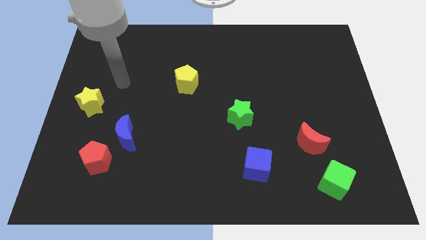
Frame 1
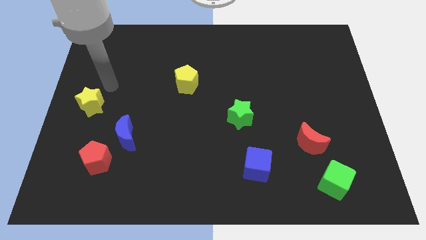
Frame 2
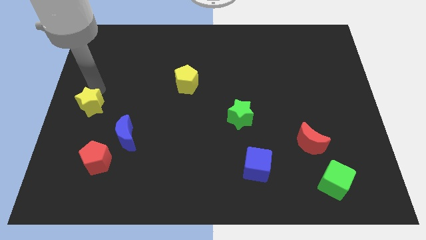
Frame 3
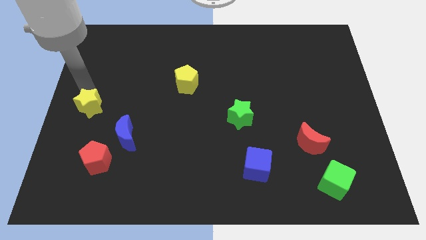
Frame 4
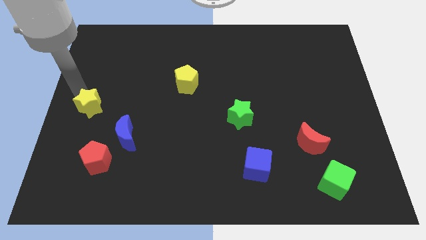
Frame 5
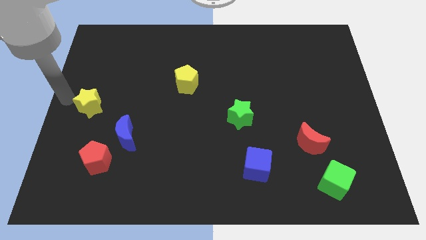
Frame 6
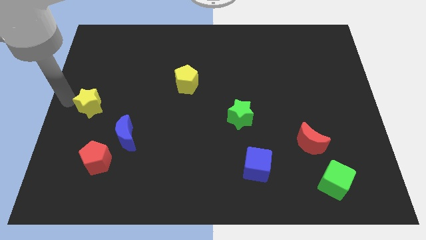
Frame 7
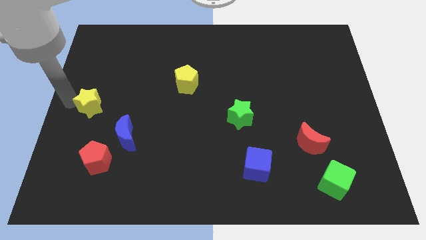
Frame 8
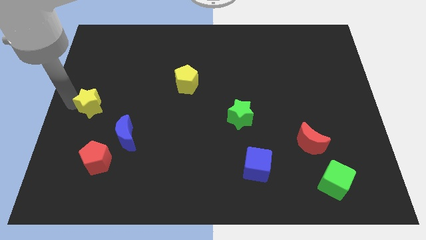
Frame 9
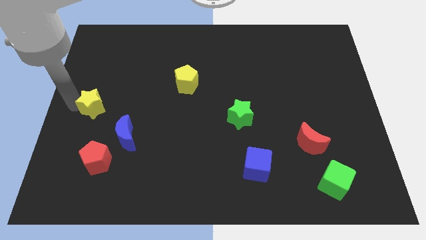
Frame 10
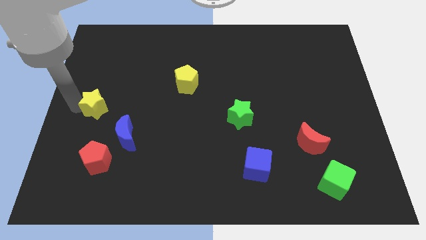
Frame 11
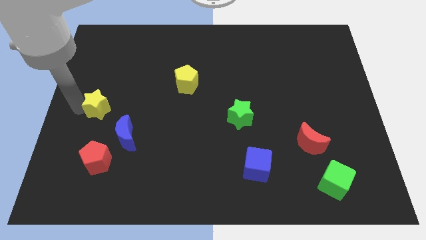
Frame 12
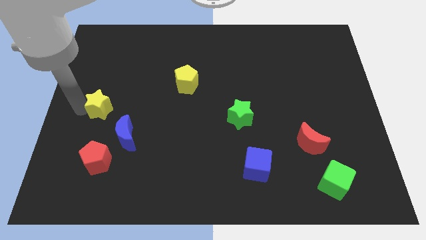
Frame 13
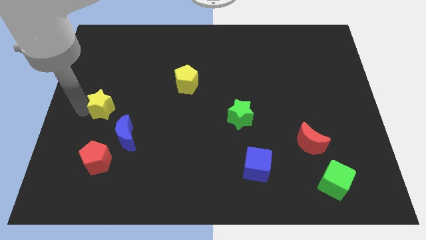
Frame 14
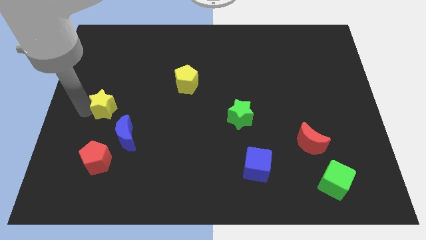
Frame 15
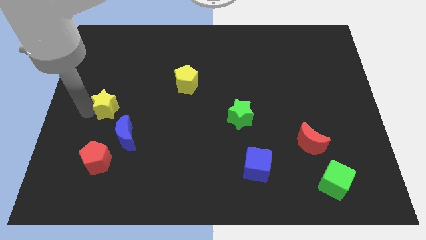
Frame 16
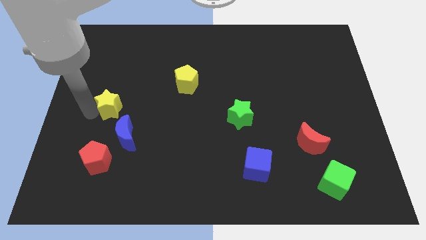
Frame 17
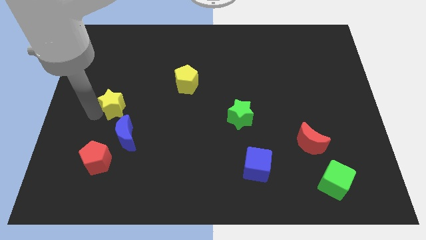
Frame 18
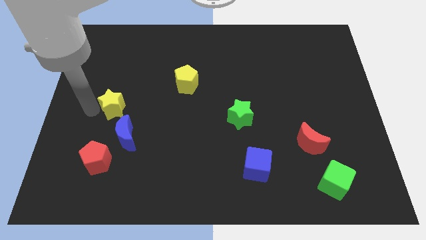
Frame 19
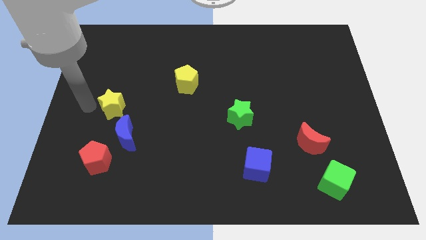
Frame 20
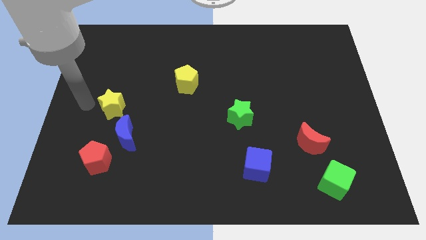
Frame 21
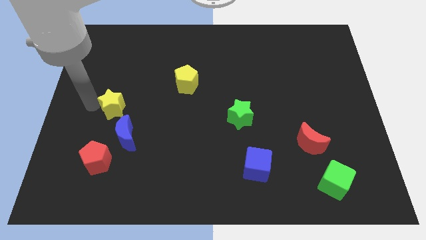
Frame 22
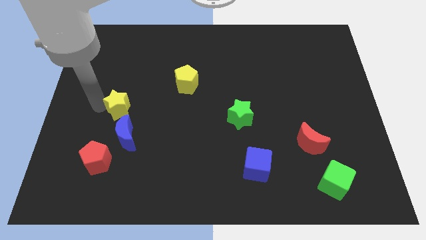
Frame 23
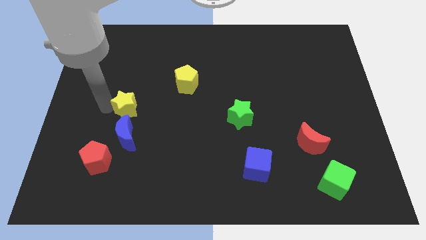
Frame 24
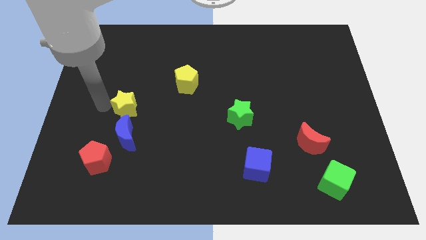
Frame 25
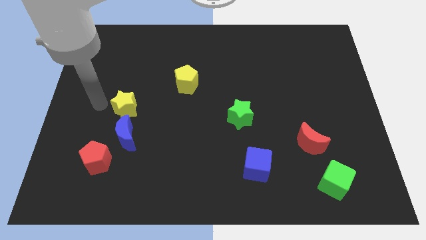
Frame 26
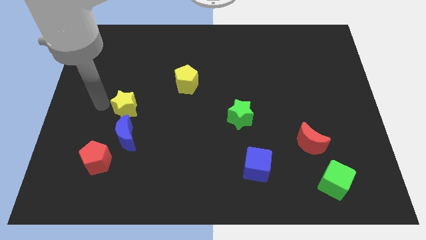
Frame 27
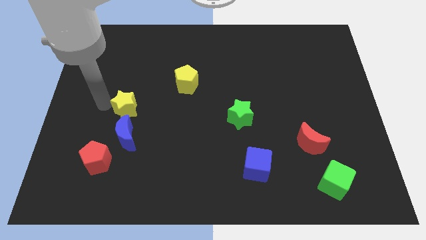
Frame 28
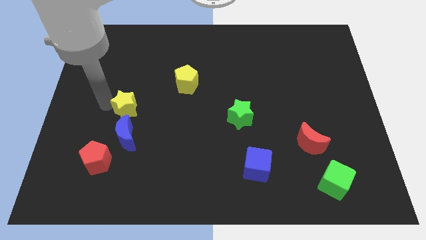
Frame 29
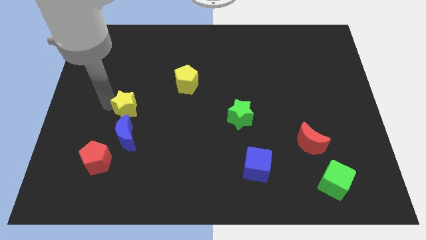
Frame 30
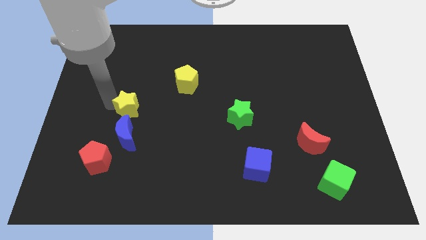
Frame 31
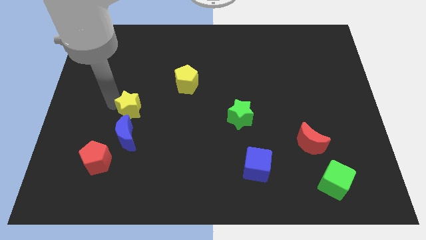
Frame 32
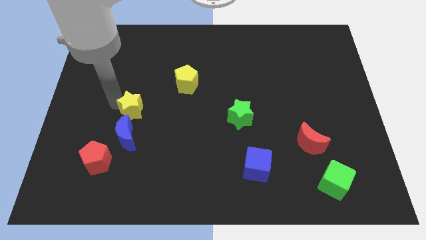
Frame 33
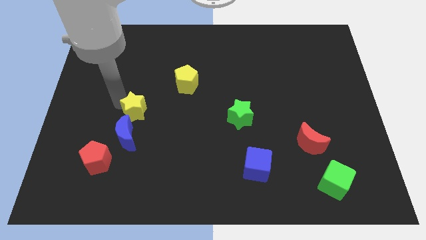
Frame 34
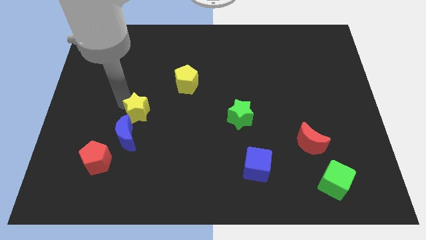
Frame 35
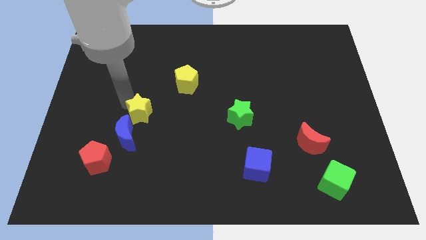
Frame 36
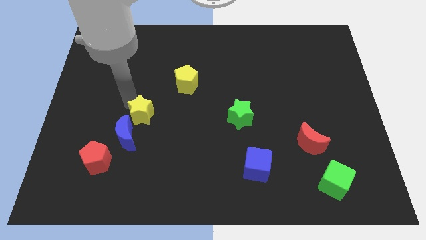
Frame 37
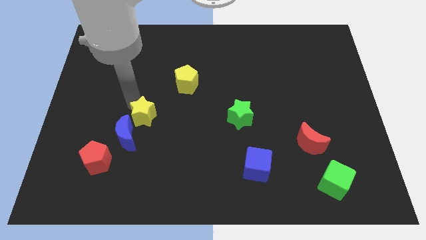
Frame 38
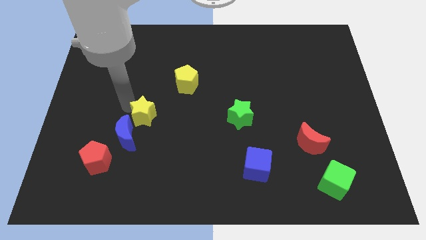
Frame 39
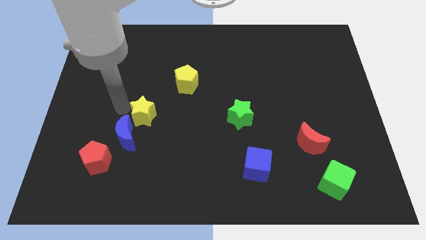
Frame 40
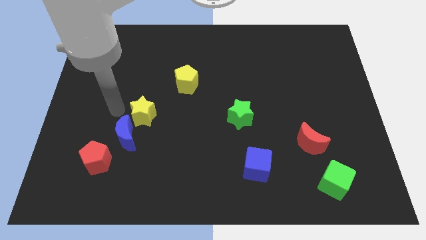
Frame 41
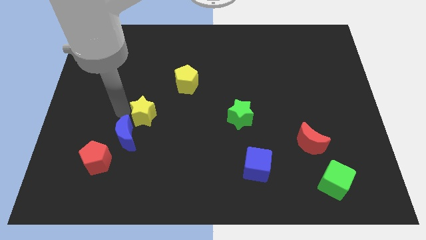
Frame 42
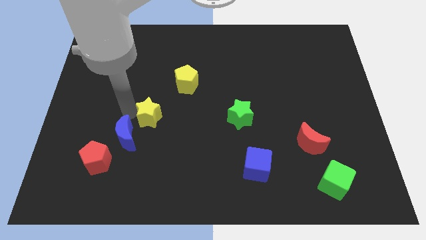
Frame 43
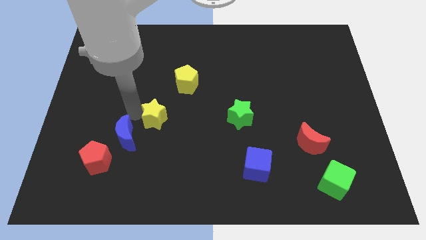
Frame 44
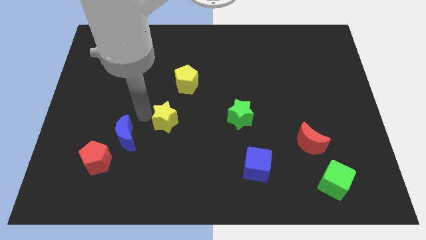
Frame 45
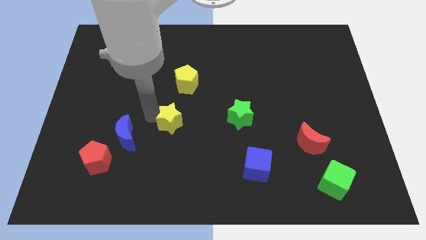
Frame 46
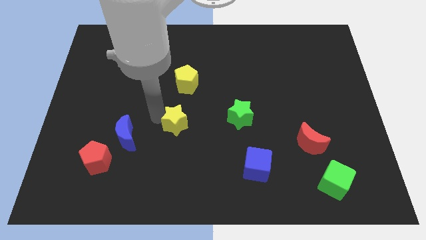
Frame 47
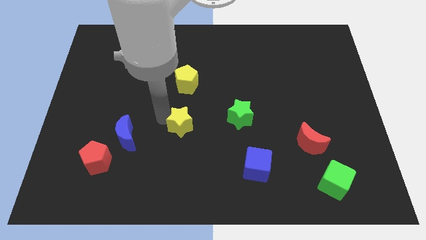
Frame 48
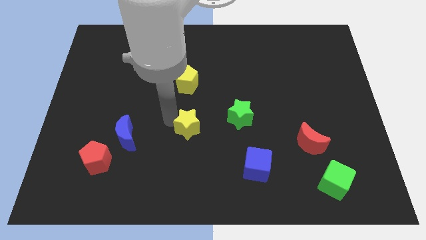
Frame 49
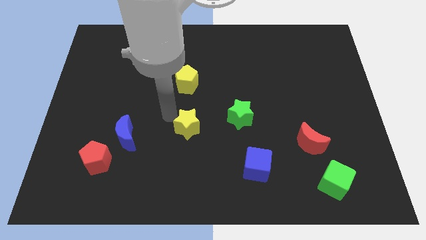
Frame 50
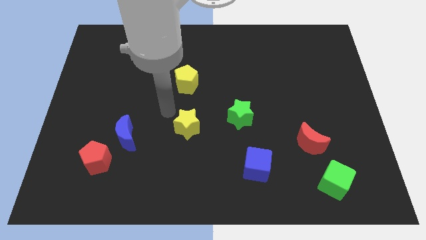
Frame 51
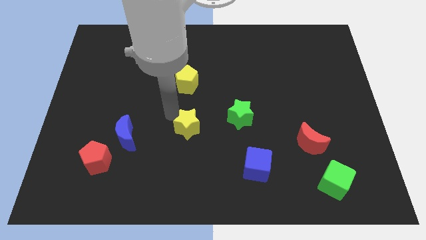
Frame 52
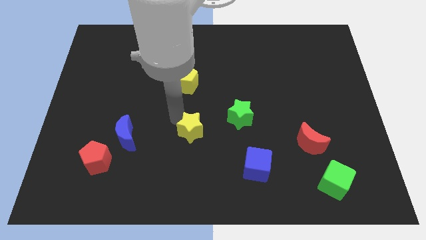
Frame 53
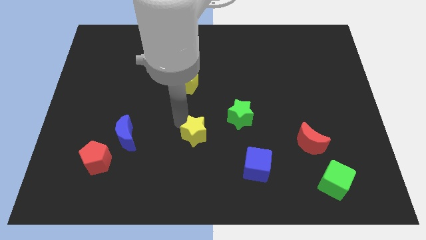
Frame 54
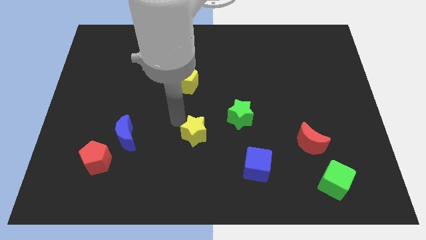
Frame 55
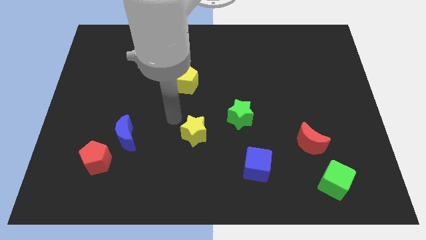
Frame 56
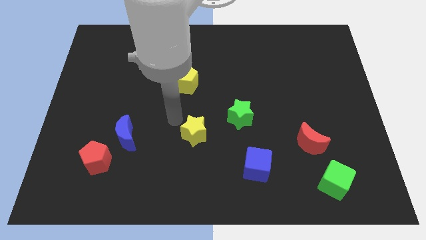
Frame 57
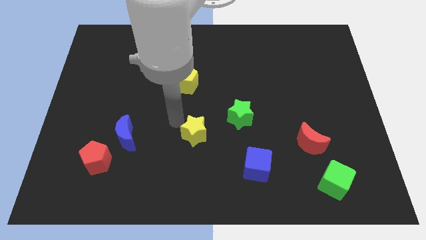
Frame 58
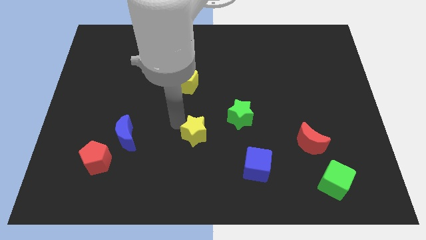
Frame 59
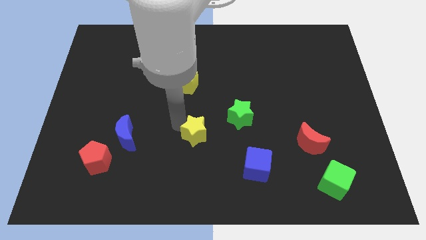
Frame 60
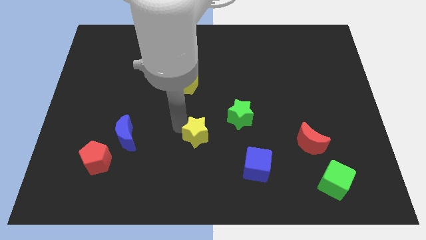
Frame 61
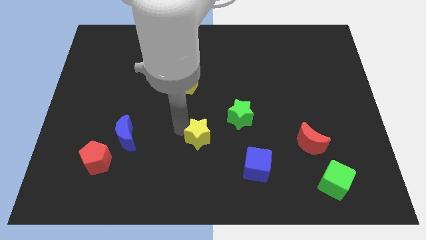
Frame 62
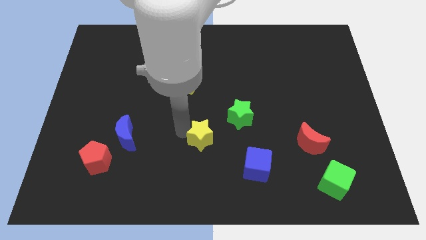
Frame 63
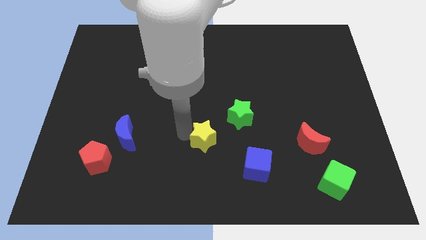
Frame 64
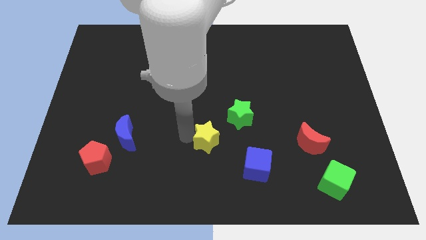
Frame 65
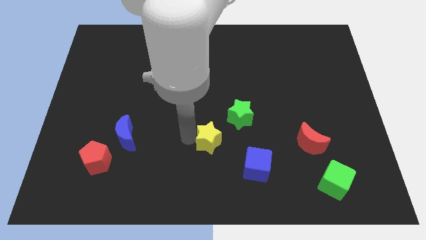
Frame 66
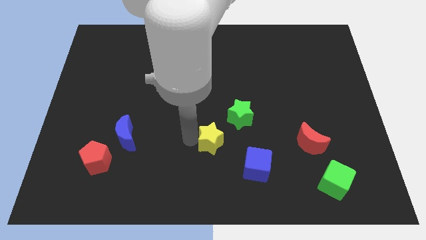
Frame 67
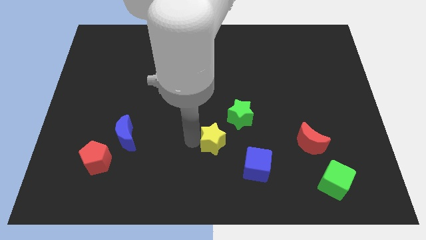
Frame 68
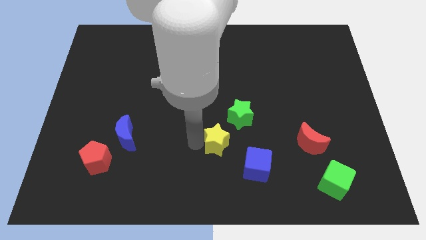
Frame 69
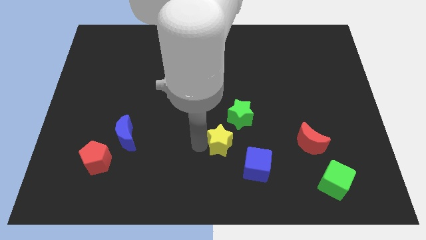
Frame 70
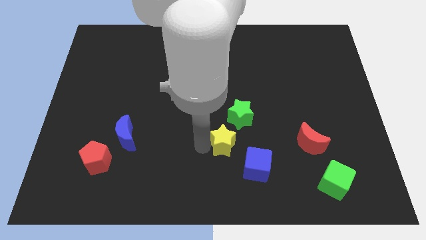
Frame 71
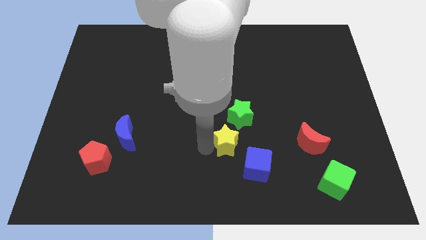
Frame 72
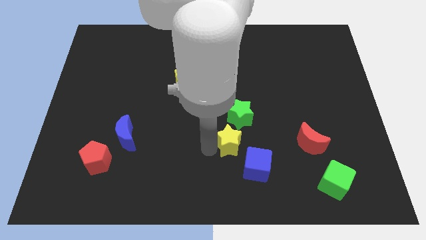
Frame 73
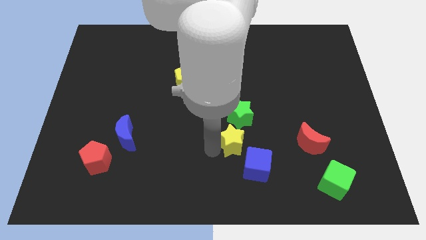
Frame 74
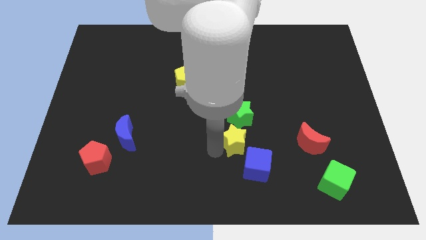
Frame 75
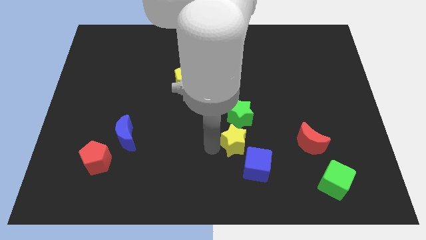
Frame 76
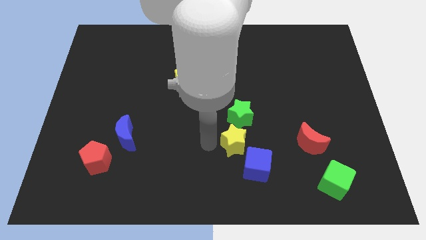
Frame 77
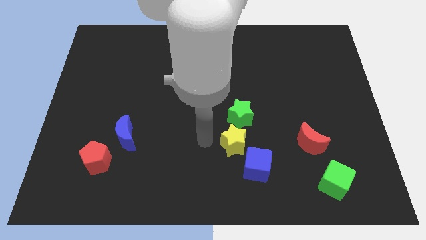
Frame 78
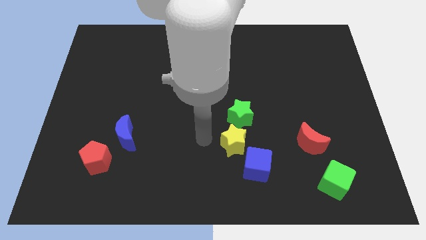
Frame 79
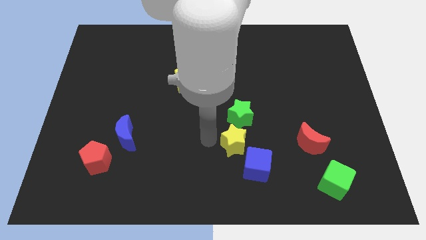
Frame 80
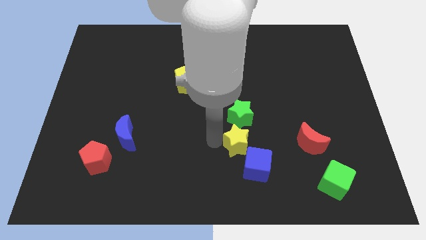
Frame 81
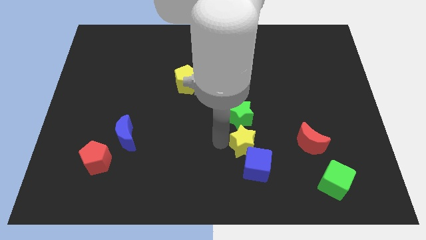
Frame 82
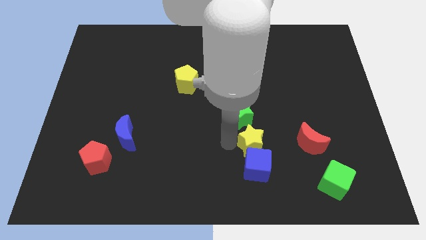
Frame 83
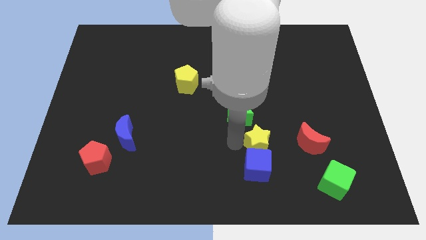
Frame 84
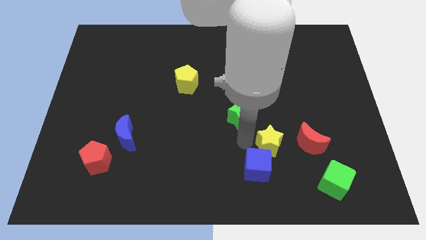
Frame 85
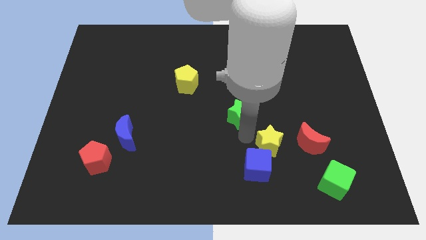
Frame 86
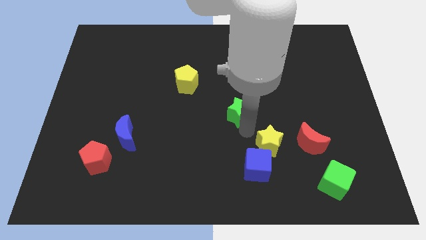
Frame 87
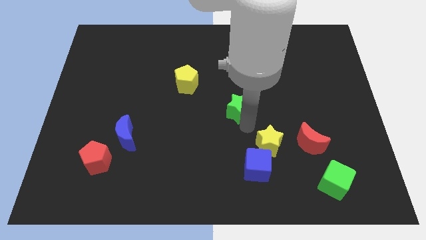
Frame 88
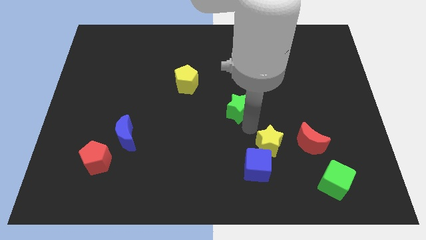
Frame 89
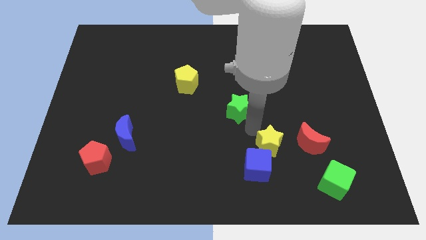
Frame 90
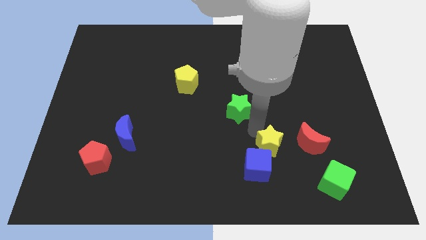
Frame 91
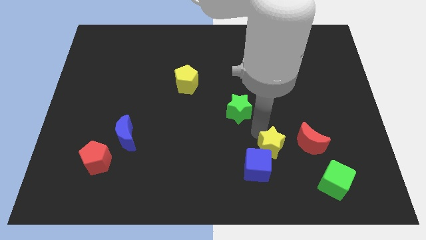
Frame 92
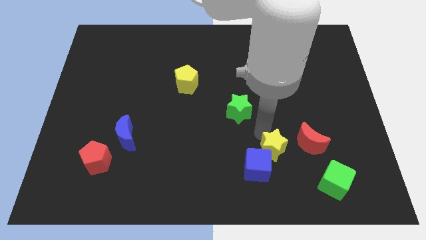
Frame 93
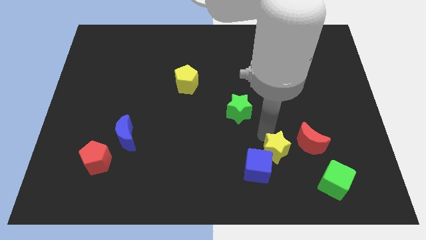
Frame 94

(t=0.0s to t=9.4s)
put the yellow star diagonally down and to the left of the red moon
